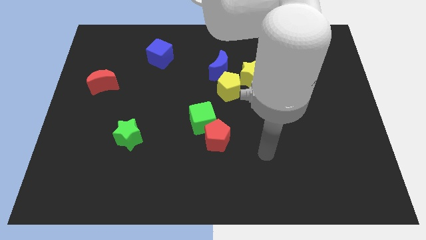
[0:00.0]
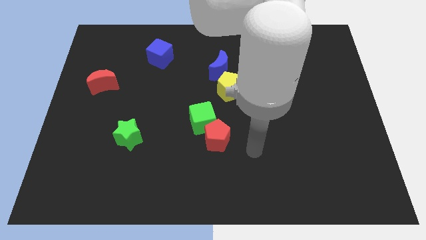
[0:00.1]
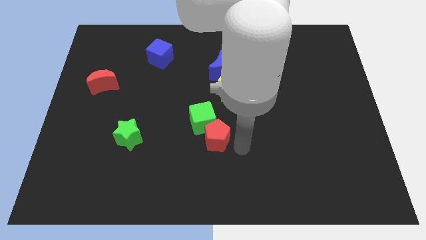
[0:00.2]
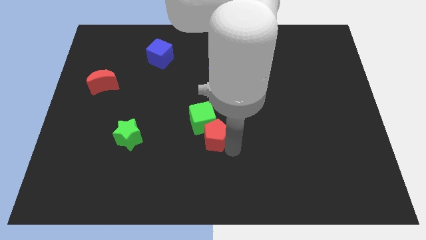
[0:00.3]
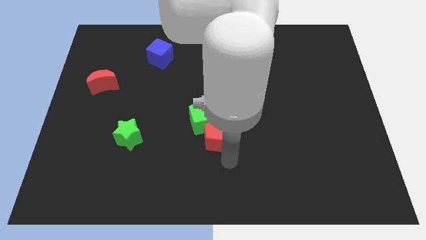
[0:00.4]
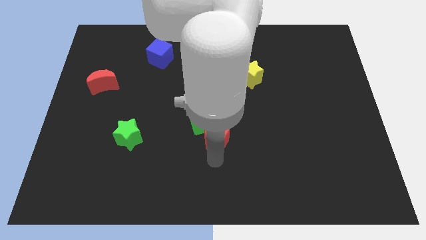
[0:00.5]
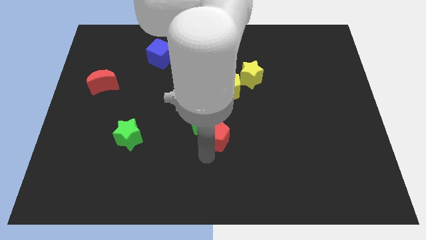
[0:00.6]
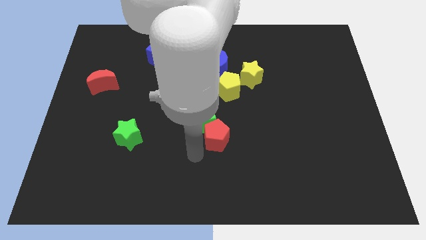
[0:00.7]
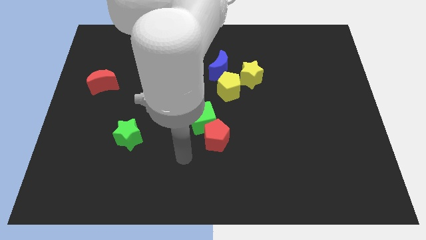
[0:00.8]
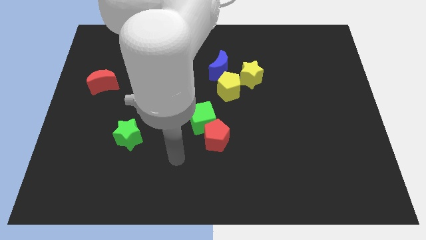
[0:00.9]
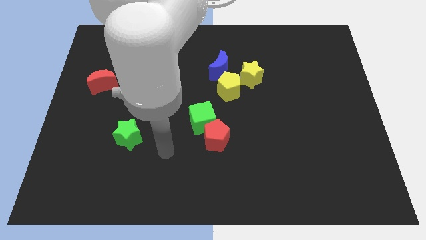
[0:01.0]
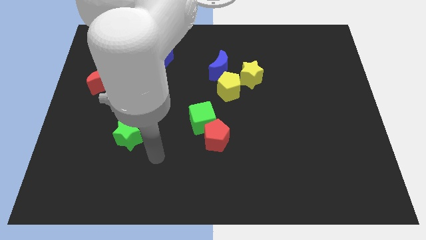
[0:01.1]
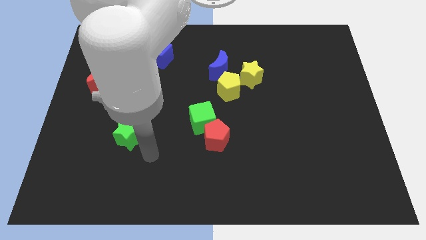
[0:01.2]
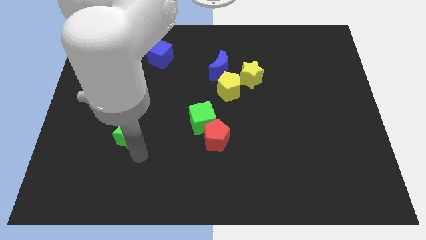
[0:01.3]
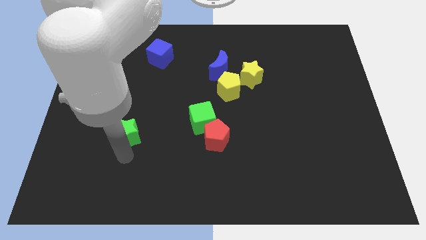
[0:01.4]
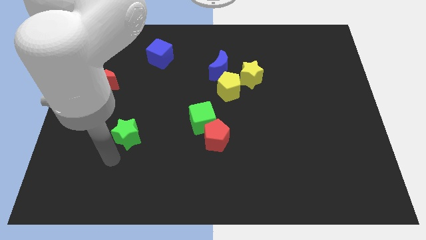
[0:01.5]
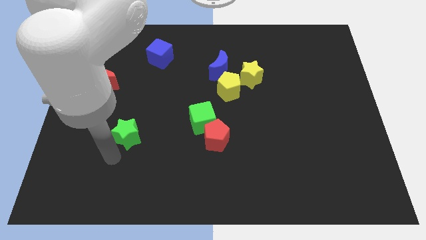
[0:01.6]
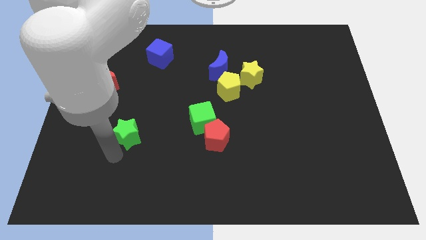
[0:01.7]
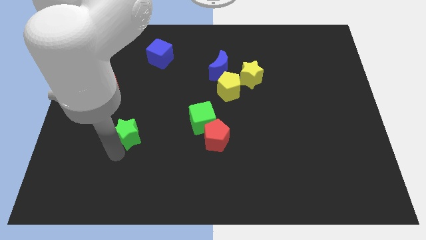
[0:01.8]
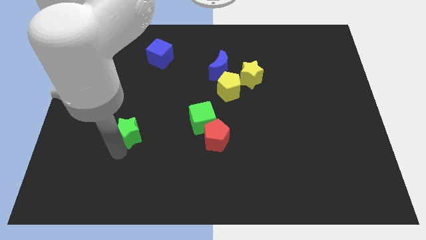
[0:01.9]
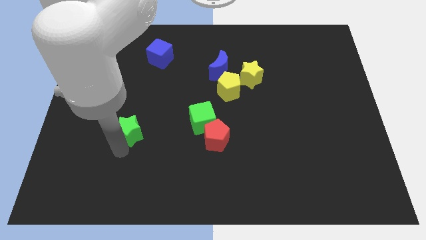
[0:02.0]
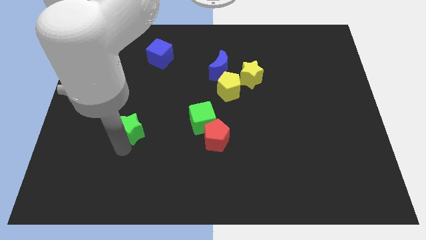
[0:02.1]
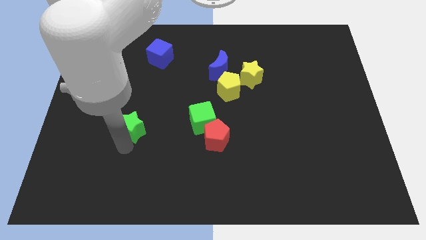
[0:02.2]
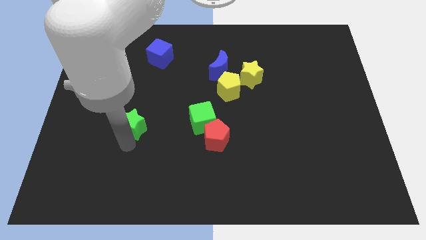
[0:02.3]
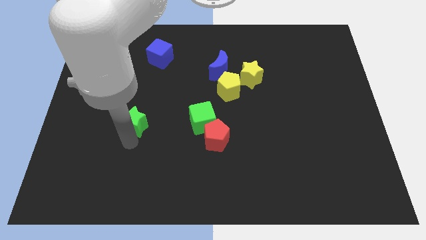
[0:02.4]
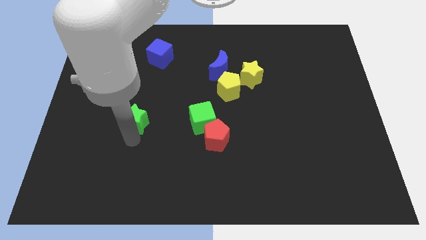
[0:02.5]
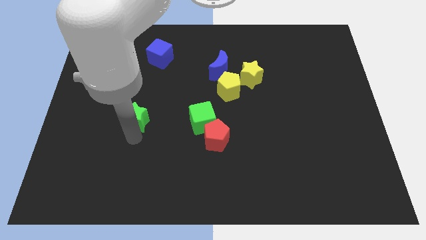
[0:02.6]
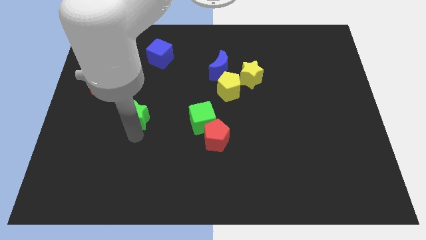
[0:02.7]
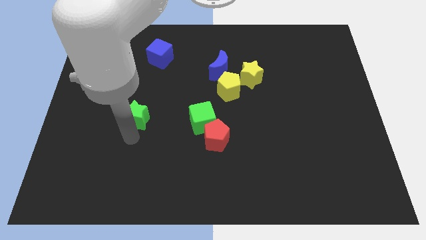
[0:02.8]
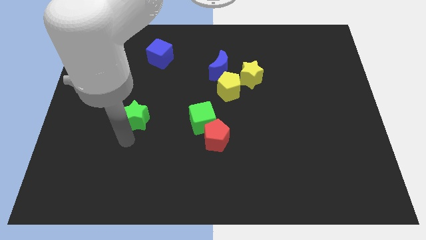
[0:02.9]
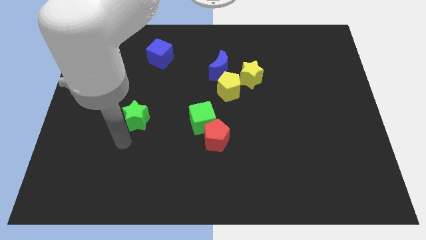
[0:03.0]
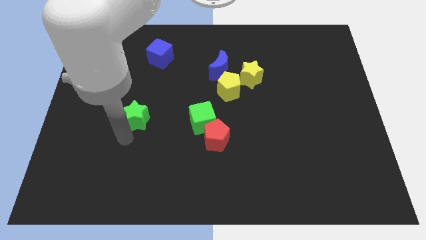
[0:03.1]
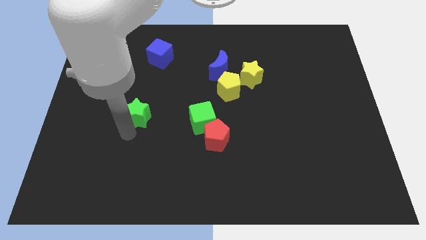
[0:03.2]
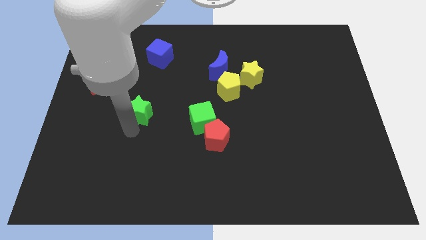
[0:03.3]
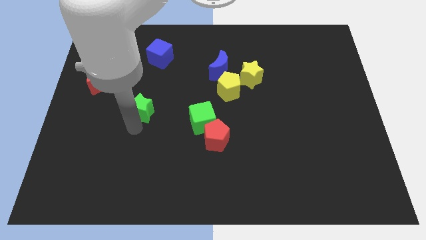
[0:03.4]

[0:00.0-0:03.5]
slightly move the green star up

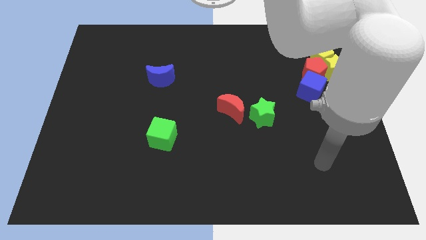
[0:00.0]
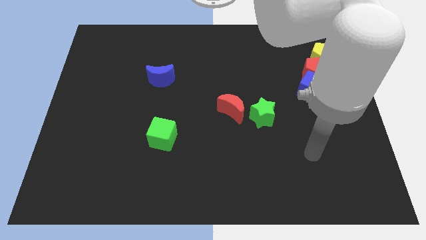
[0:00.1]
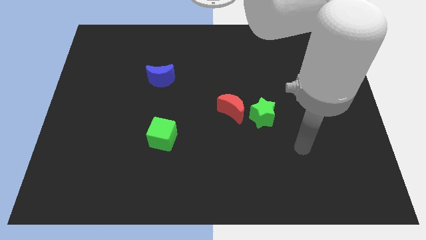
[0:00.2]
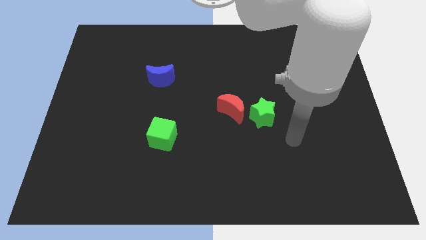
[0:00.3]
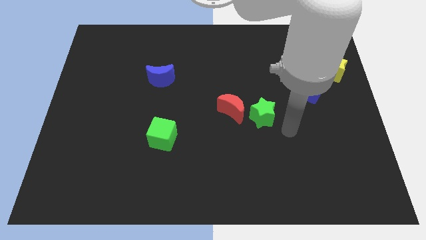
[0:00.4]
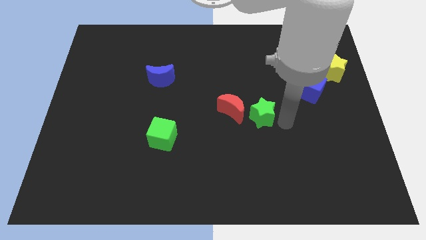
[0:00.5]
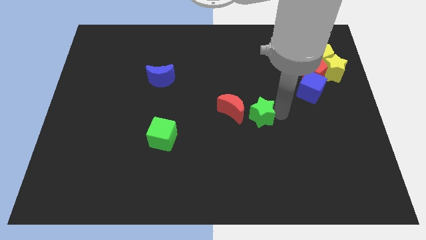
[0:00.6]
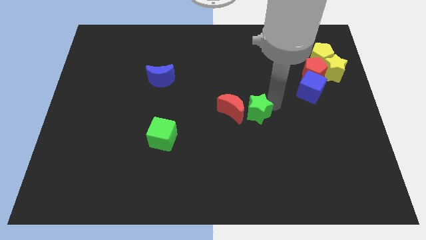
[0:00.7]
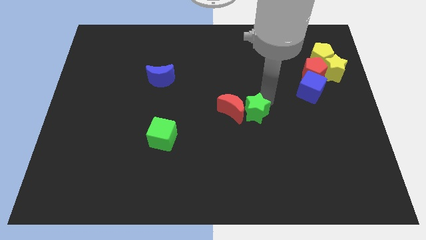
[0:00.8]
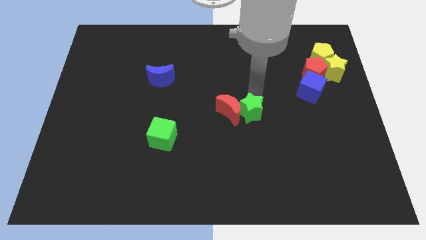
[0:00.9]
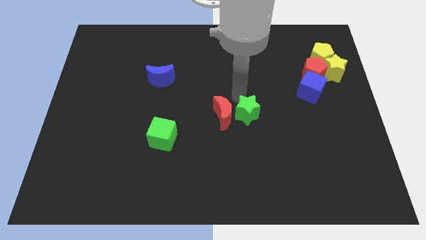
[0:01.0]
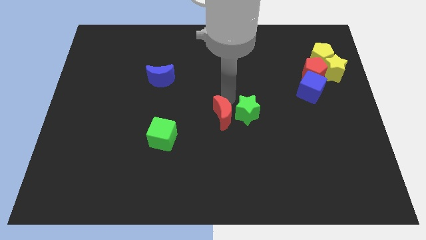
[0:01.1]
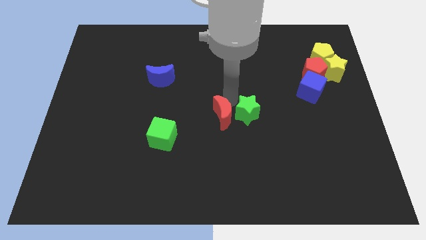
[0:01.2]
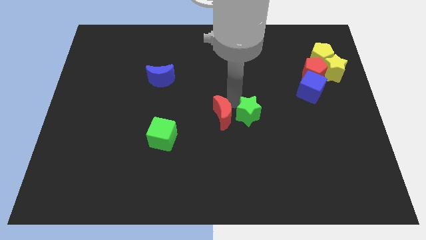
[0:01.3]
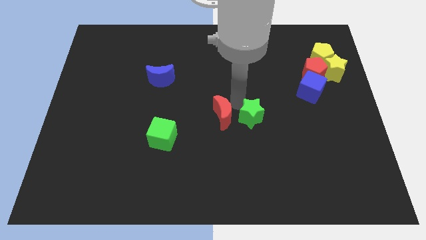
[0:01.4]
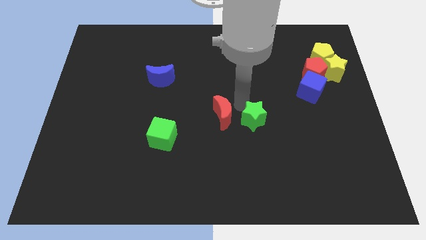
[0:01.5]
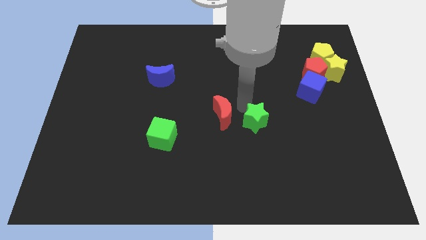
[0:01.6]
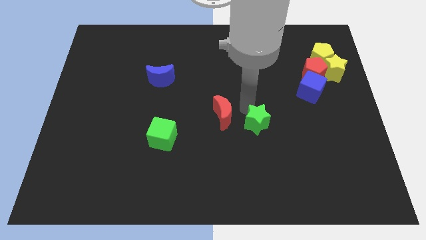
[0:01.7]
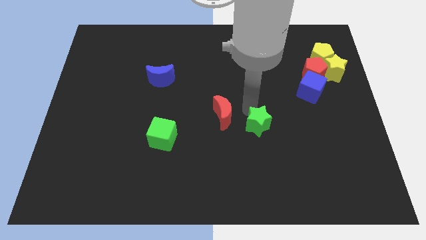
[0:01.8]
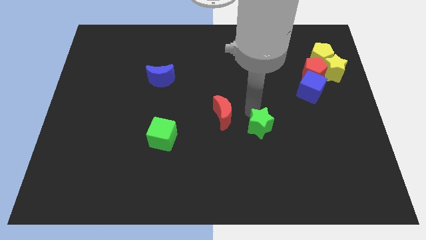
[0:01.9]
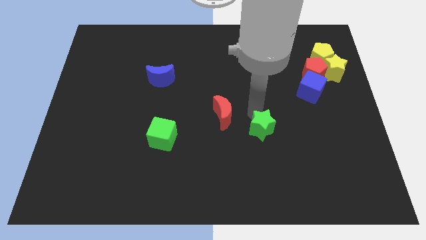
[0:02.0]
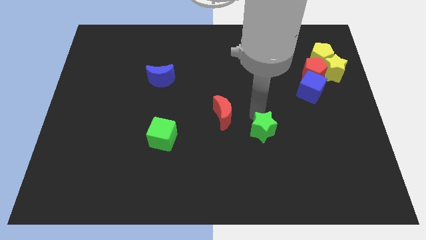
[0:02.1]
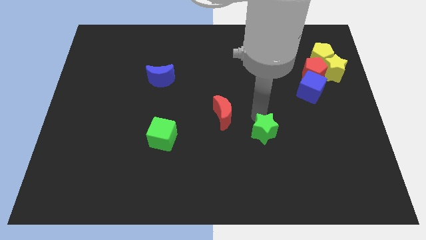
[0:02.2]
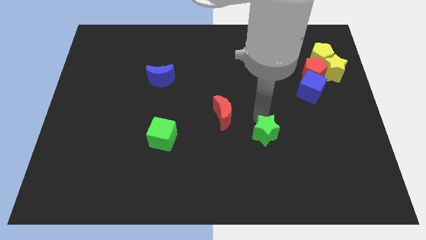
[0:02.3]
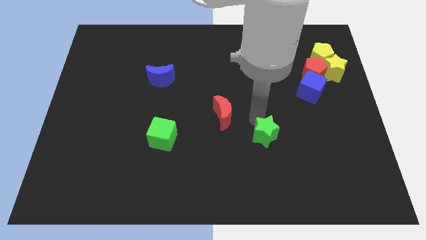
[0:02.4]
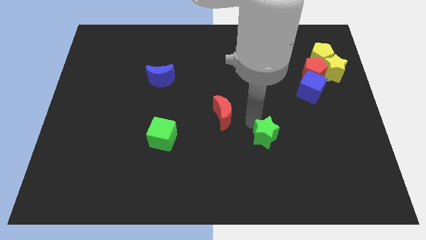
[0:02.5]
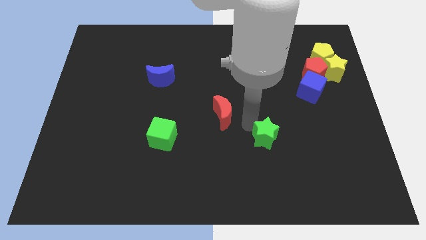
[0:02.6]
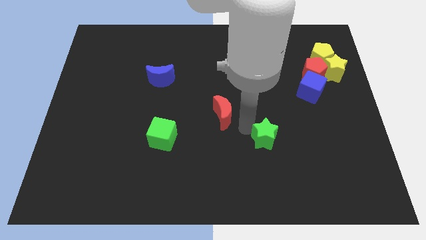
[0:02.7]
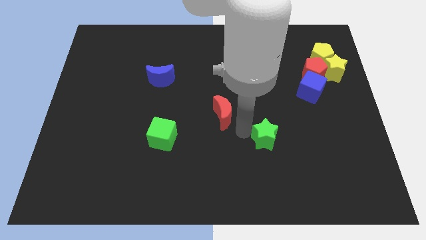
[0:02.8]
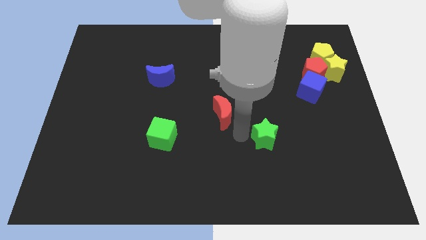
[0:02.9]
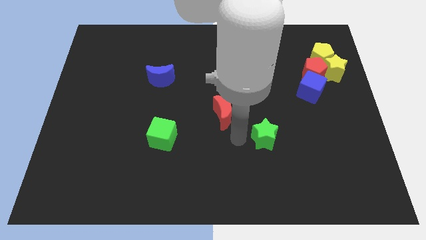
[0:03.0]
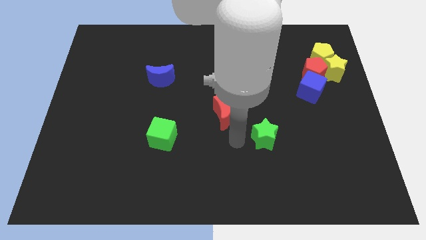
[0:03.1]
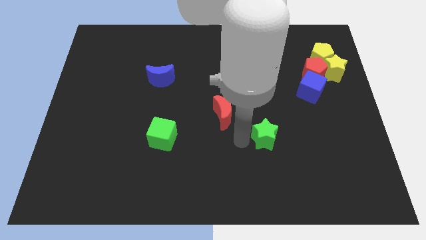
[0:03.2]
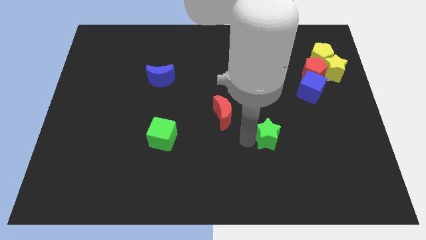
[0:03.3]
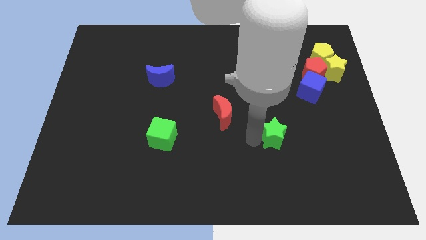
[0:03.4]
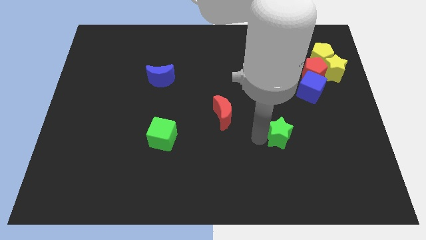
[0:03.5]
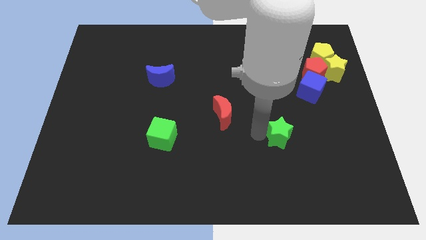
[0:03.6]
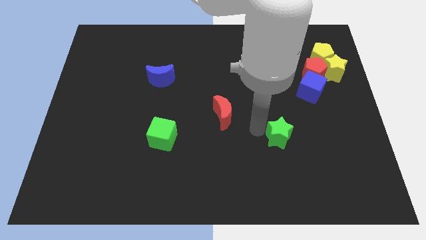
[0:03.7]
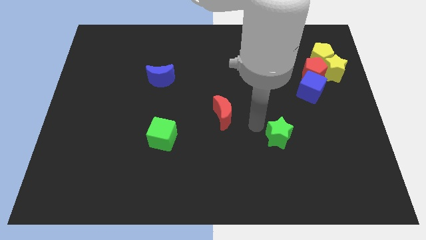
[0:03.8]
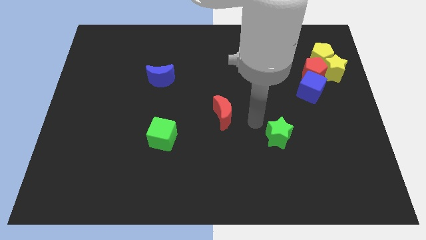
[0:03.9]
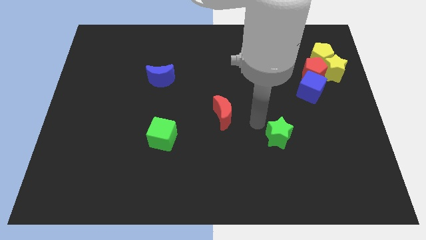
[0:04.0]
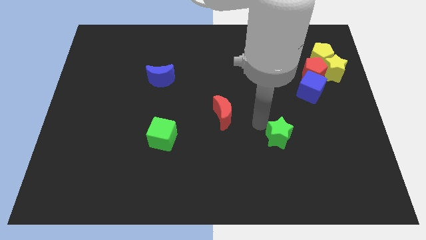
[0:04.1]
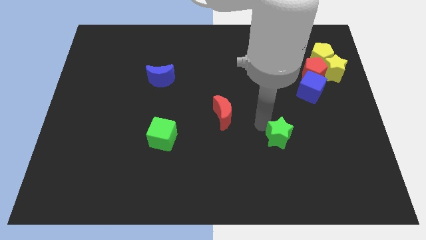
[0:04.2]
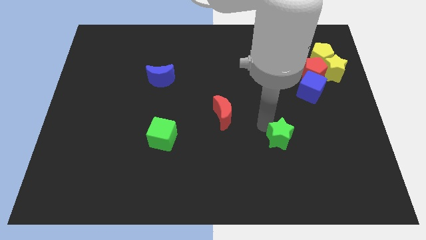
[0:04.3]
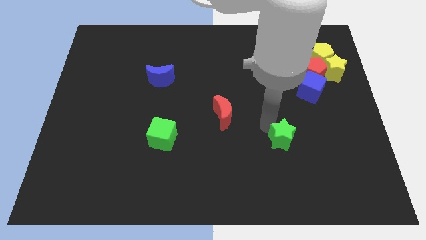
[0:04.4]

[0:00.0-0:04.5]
slide the green star a little down and to the right diagonally
